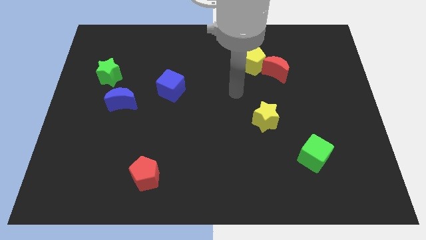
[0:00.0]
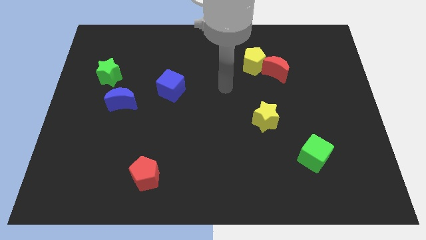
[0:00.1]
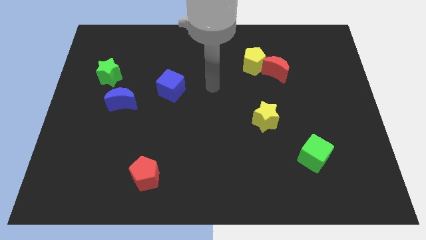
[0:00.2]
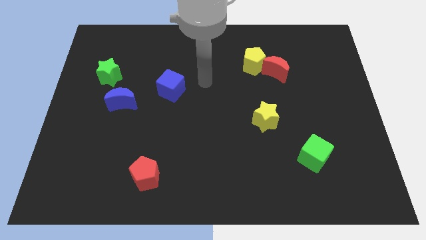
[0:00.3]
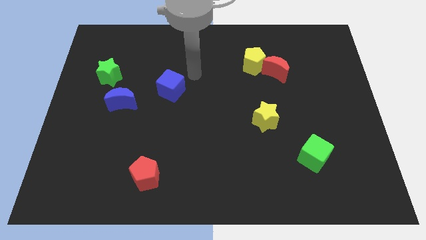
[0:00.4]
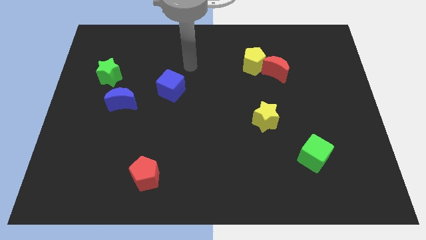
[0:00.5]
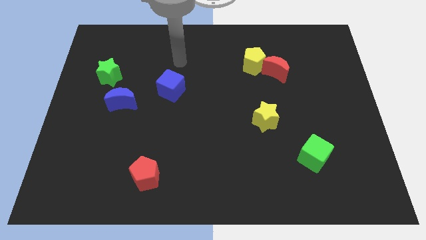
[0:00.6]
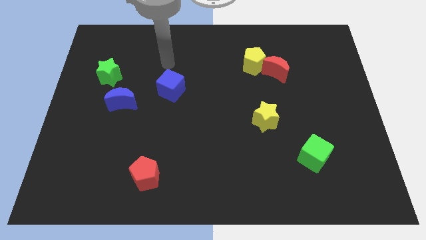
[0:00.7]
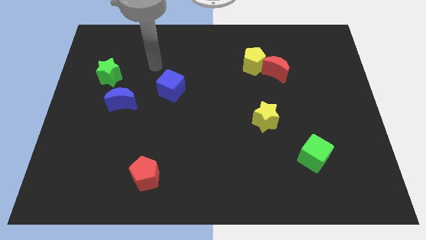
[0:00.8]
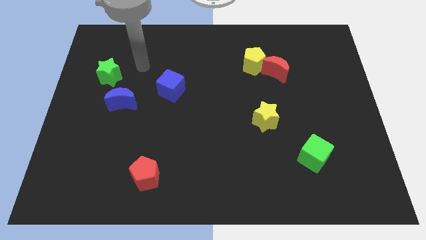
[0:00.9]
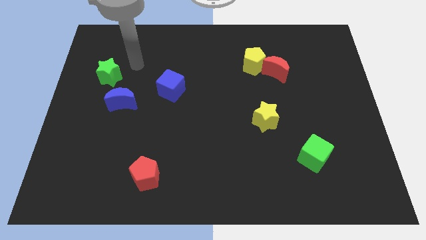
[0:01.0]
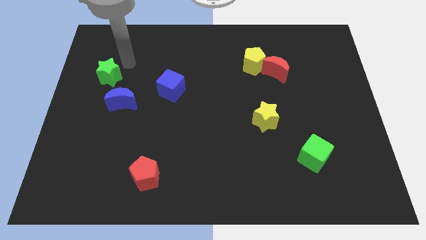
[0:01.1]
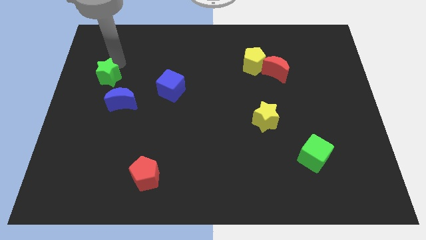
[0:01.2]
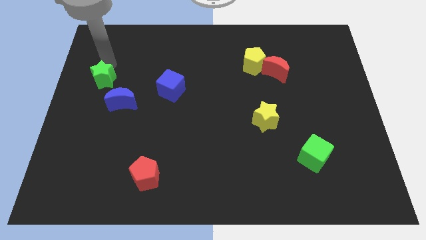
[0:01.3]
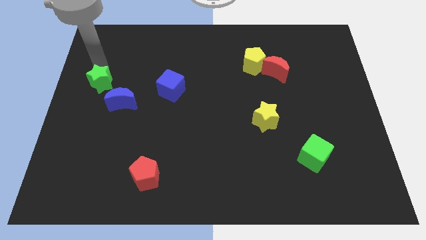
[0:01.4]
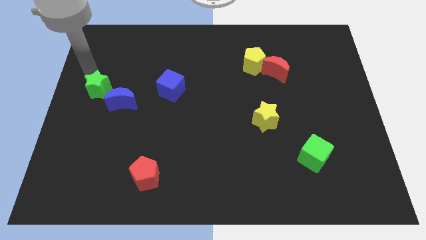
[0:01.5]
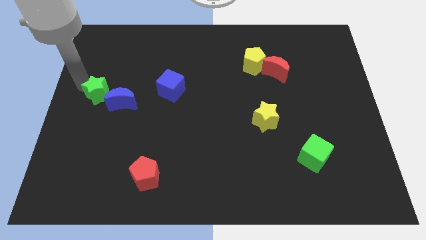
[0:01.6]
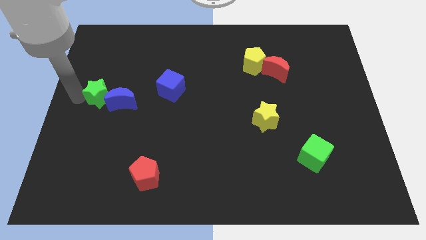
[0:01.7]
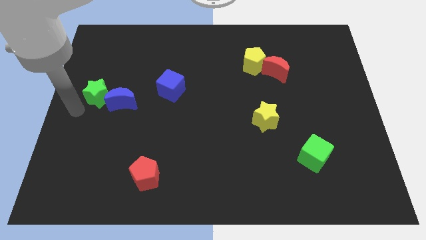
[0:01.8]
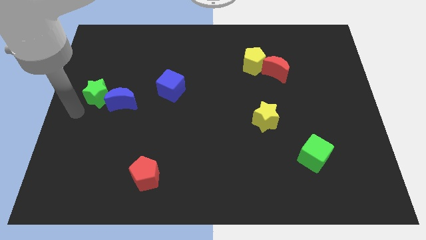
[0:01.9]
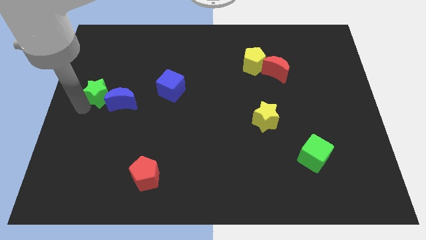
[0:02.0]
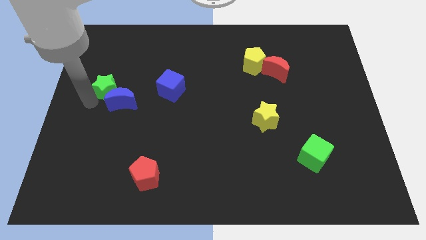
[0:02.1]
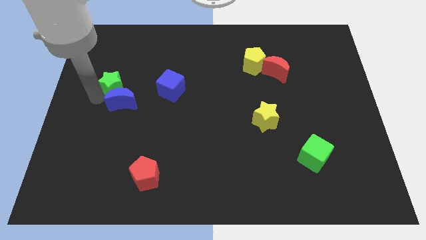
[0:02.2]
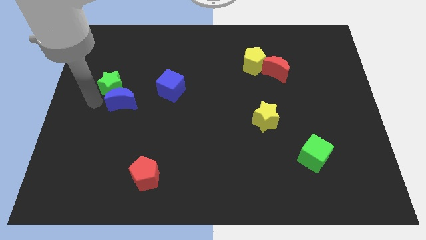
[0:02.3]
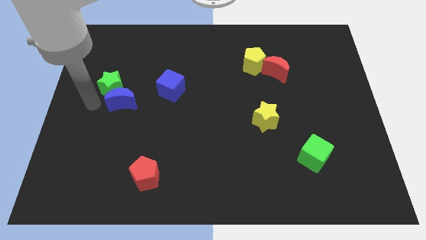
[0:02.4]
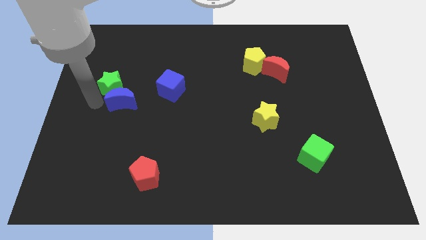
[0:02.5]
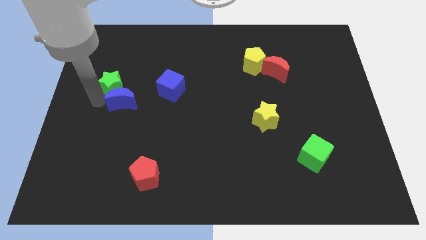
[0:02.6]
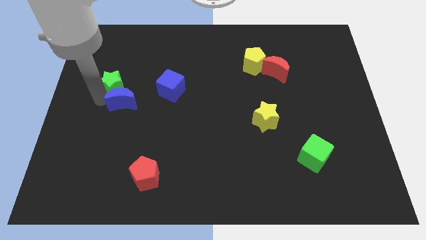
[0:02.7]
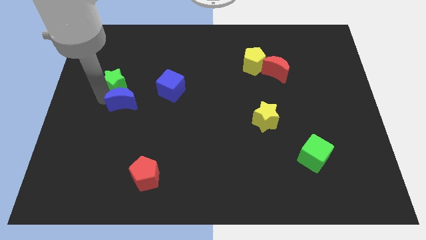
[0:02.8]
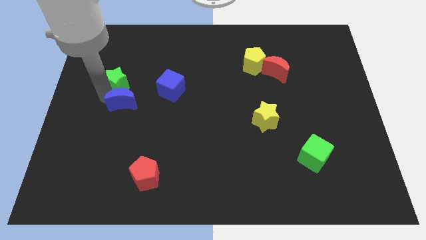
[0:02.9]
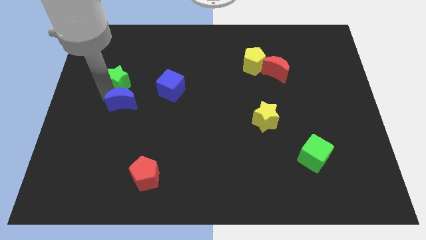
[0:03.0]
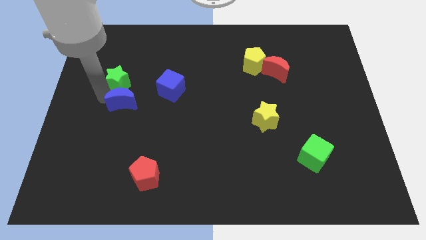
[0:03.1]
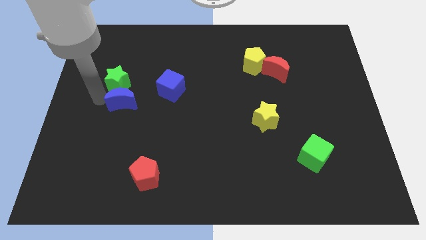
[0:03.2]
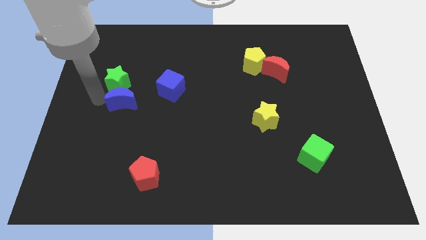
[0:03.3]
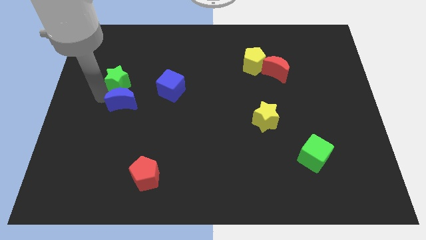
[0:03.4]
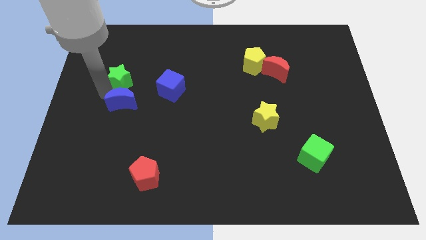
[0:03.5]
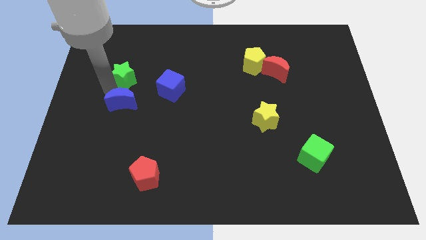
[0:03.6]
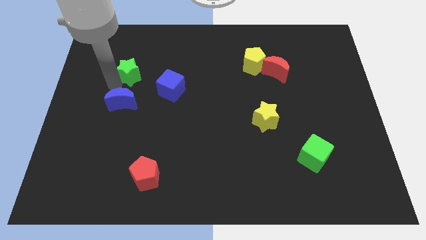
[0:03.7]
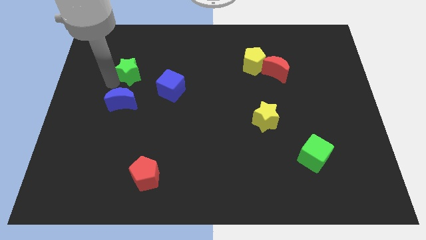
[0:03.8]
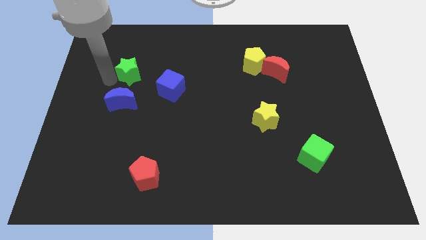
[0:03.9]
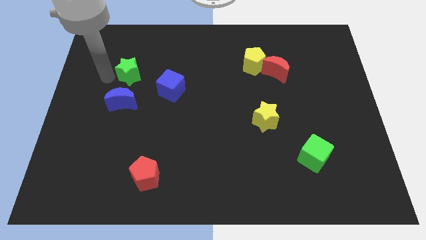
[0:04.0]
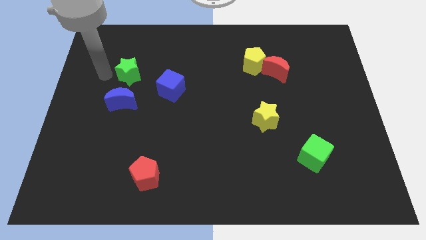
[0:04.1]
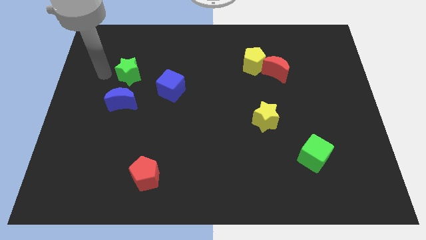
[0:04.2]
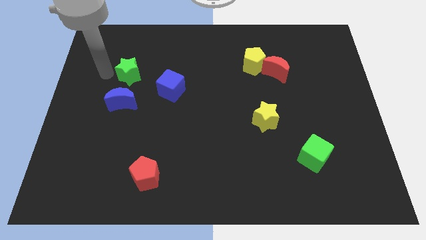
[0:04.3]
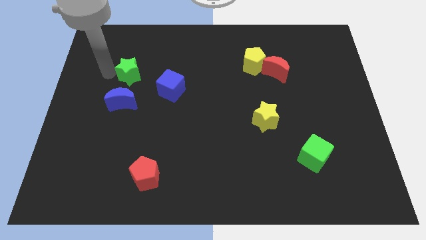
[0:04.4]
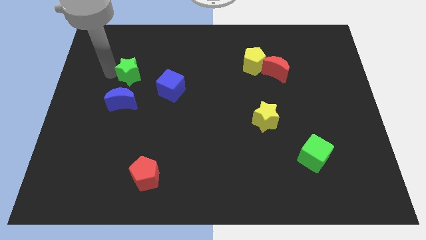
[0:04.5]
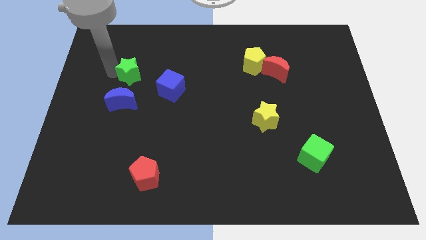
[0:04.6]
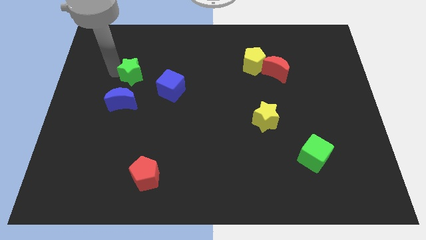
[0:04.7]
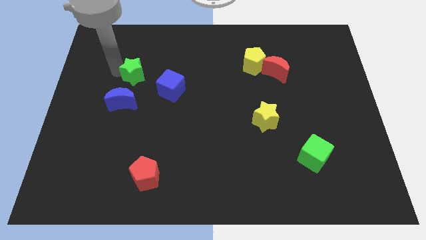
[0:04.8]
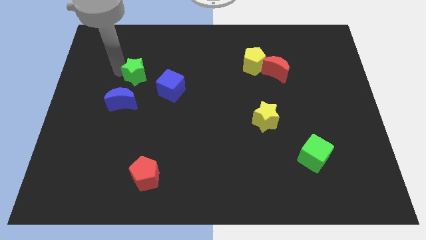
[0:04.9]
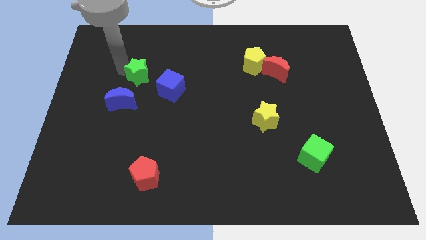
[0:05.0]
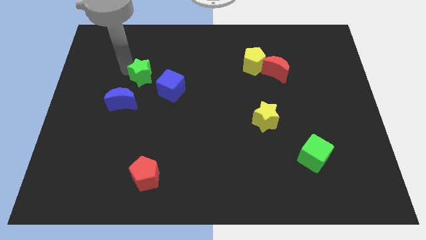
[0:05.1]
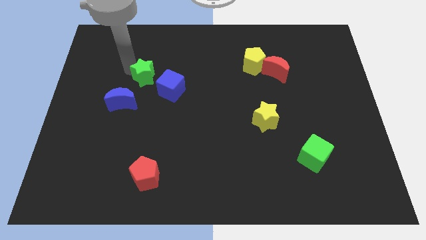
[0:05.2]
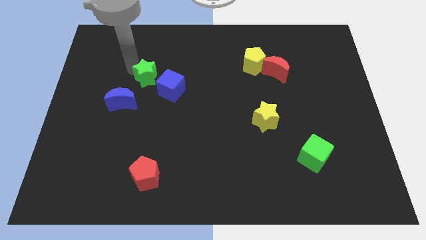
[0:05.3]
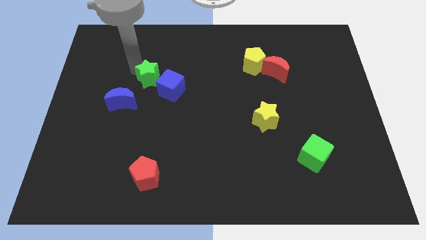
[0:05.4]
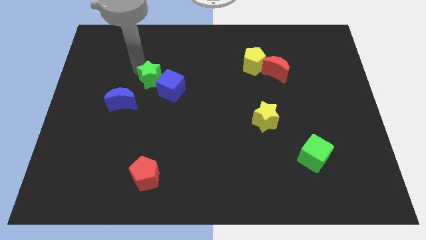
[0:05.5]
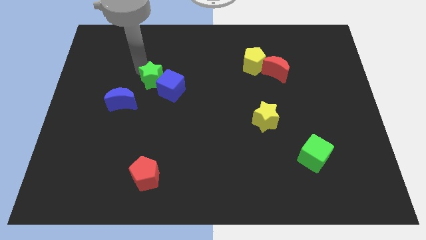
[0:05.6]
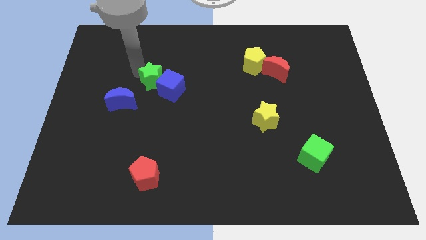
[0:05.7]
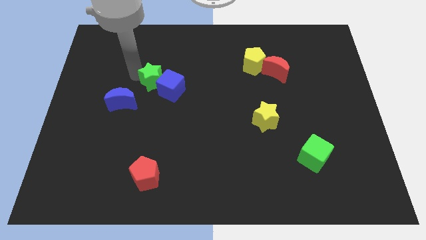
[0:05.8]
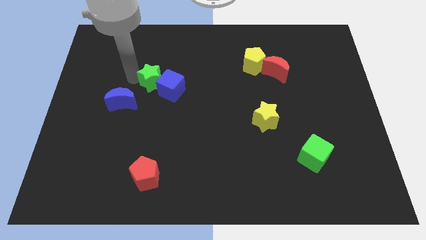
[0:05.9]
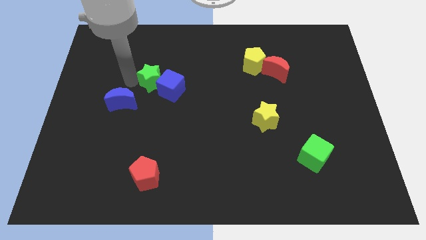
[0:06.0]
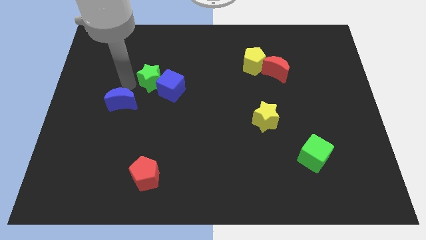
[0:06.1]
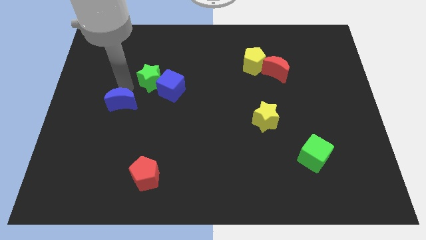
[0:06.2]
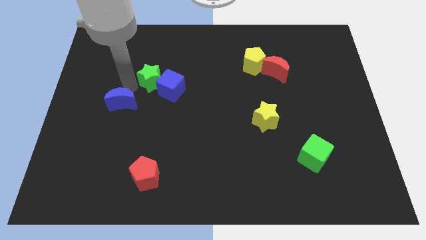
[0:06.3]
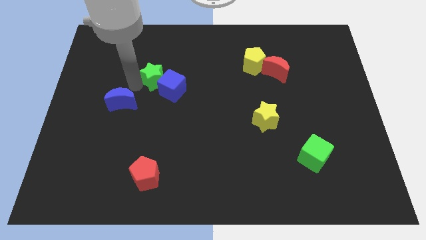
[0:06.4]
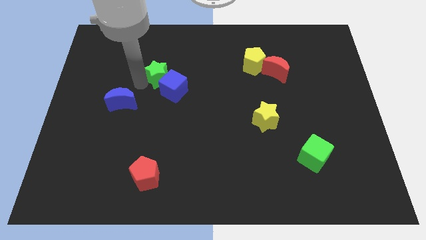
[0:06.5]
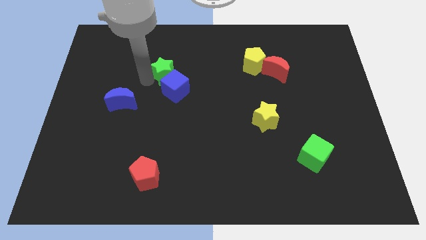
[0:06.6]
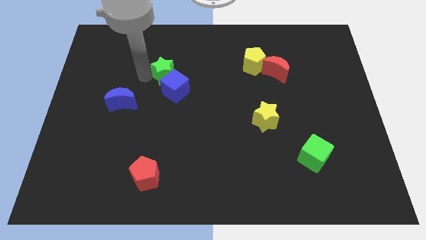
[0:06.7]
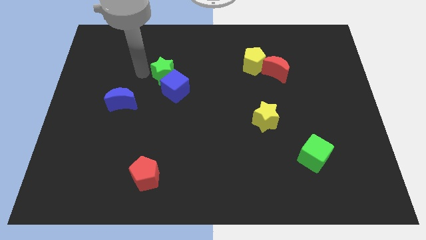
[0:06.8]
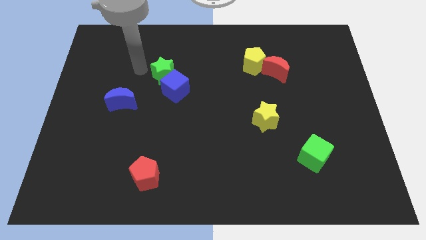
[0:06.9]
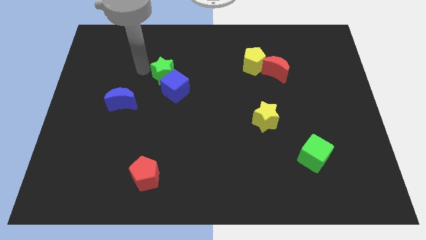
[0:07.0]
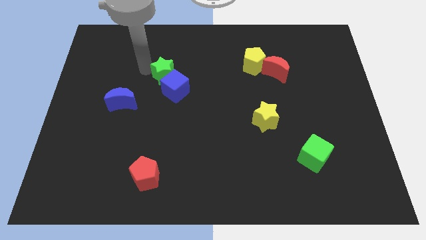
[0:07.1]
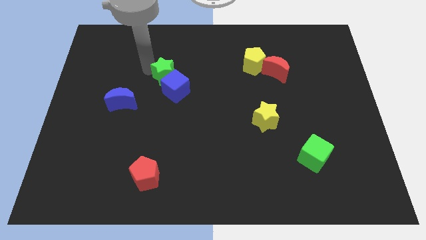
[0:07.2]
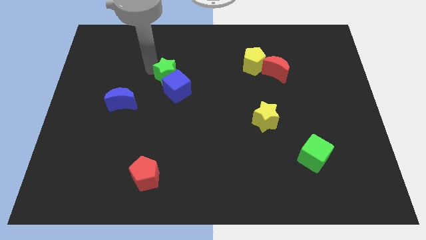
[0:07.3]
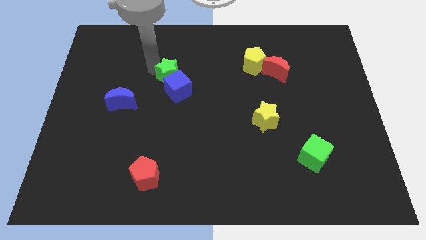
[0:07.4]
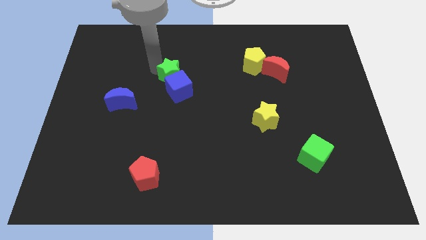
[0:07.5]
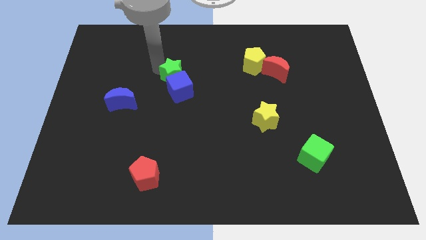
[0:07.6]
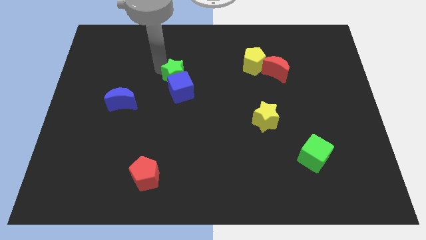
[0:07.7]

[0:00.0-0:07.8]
put the green star to the middle of the board
